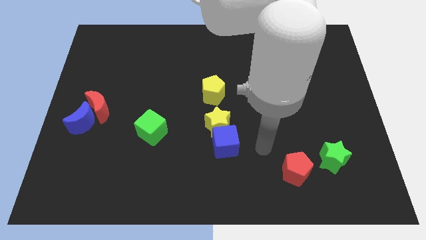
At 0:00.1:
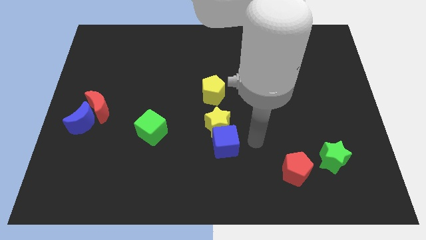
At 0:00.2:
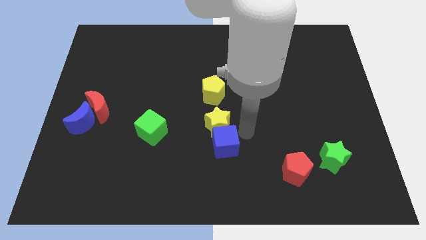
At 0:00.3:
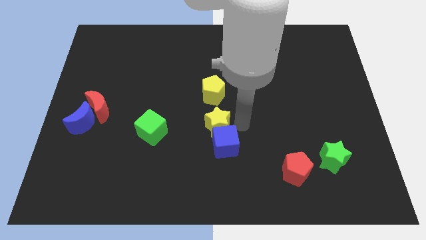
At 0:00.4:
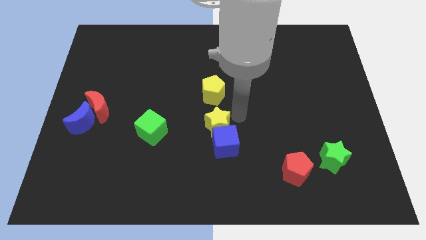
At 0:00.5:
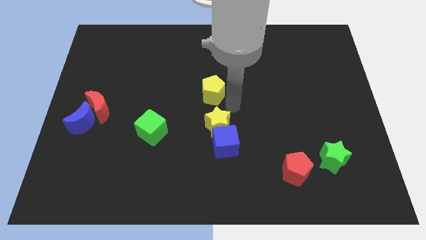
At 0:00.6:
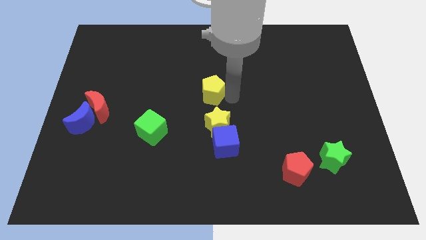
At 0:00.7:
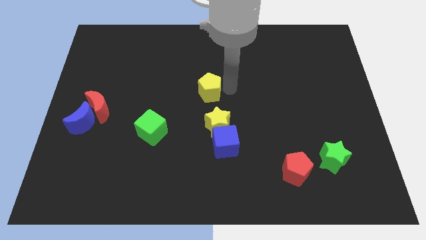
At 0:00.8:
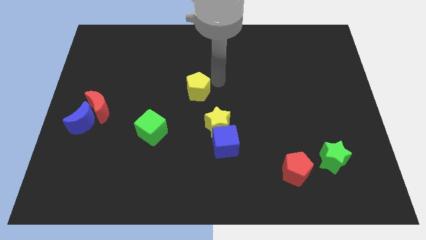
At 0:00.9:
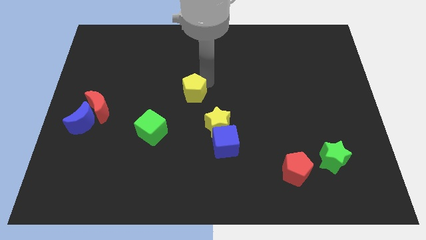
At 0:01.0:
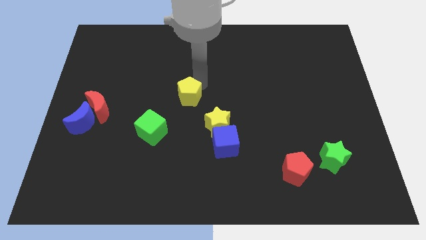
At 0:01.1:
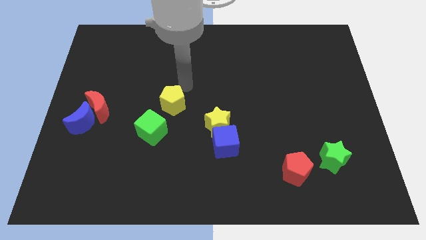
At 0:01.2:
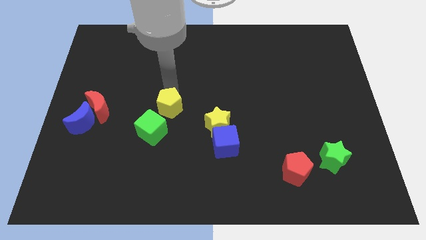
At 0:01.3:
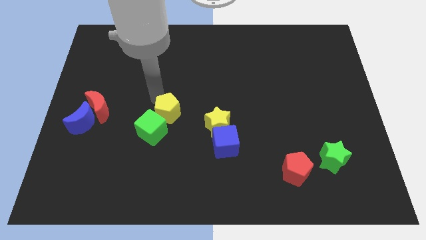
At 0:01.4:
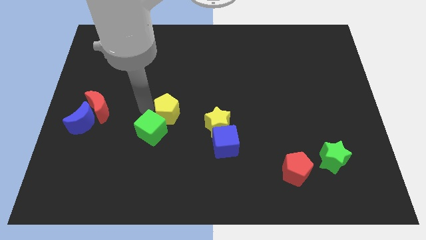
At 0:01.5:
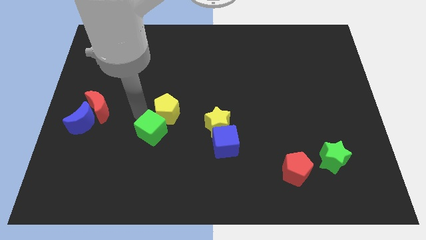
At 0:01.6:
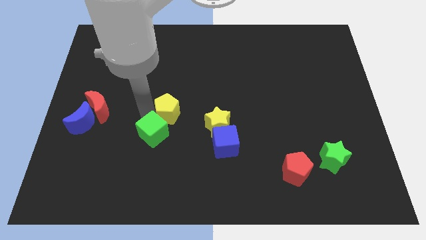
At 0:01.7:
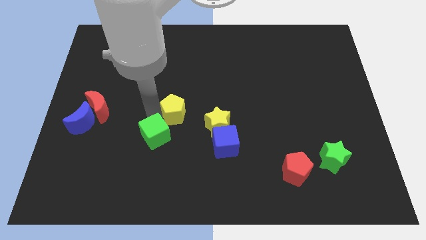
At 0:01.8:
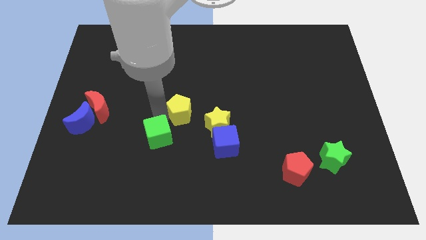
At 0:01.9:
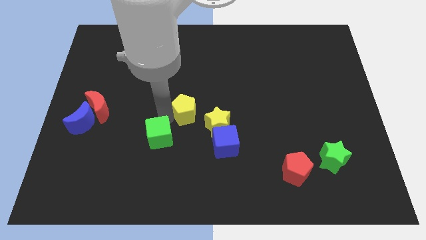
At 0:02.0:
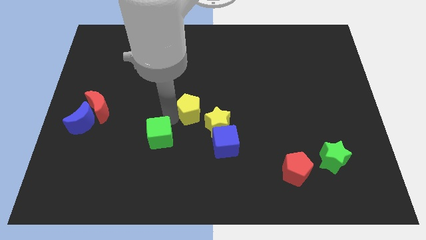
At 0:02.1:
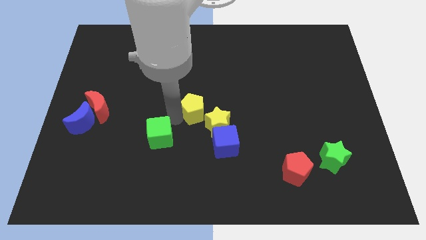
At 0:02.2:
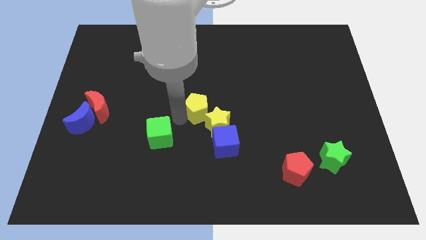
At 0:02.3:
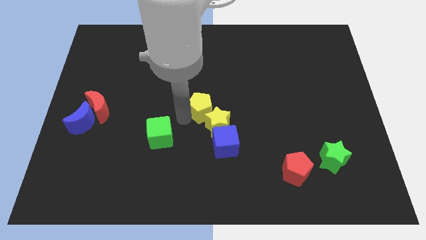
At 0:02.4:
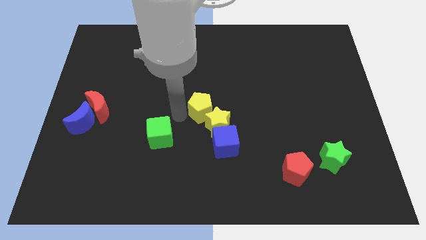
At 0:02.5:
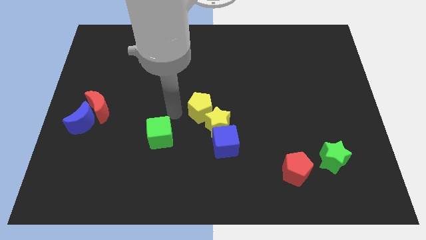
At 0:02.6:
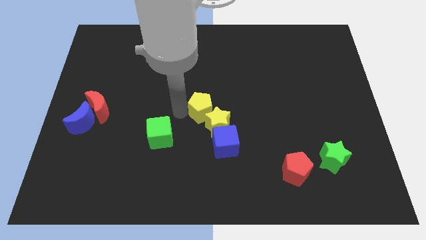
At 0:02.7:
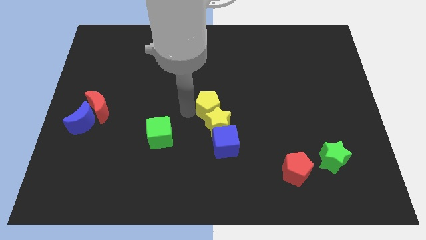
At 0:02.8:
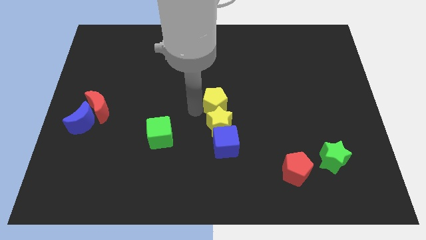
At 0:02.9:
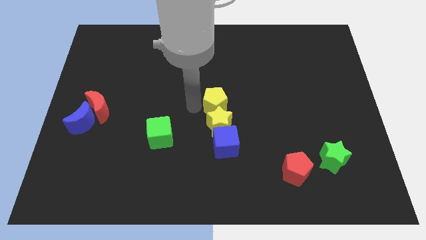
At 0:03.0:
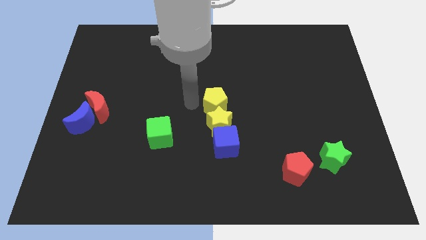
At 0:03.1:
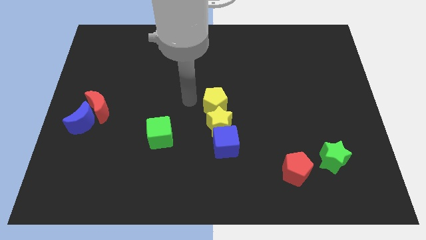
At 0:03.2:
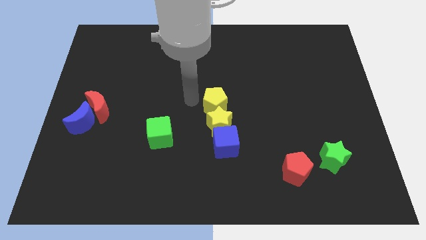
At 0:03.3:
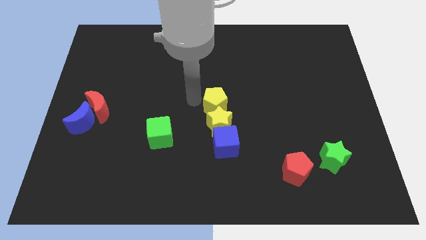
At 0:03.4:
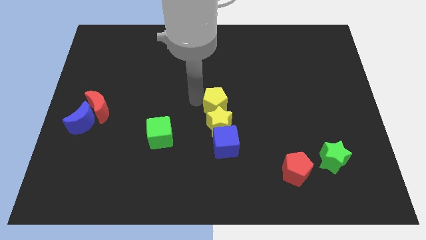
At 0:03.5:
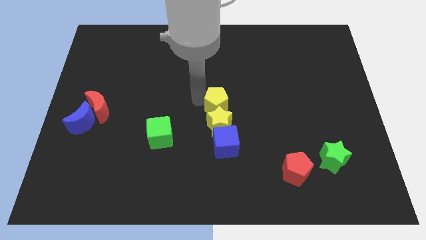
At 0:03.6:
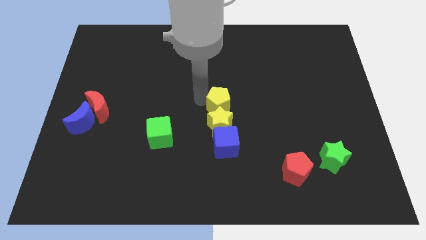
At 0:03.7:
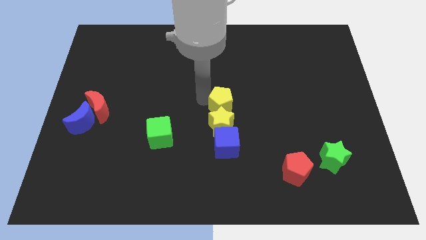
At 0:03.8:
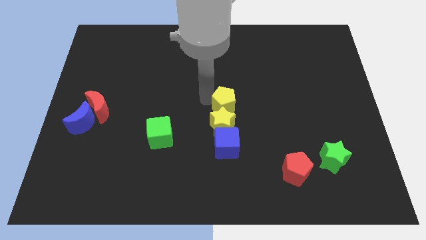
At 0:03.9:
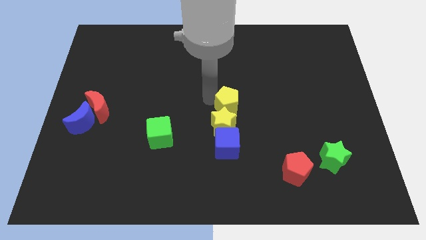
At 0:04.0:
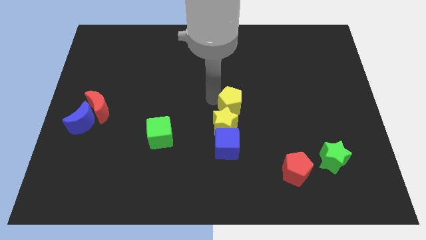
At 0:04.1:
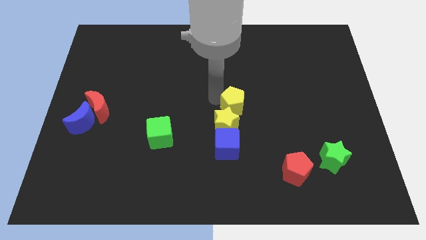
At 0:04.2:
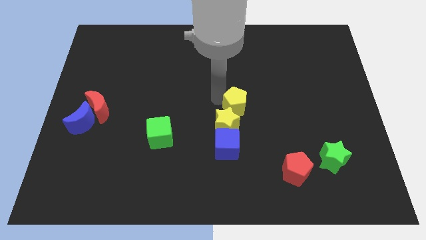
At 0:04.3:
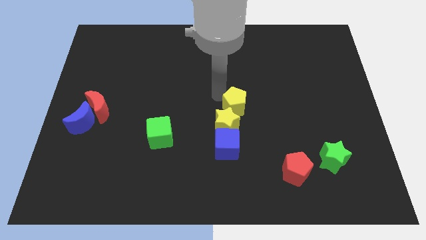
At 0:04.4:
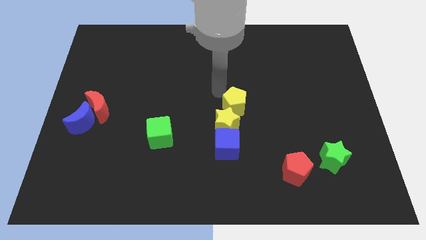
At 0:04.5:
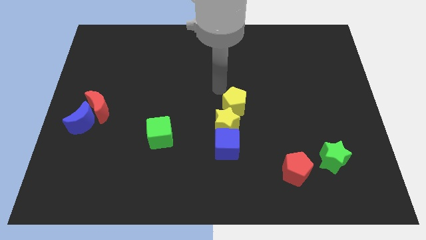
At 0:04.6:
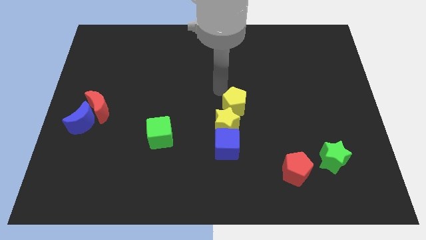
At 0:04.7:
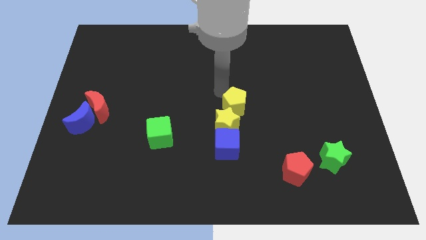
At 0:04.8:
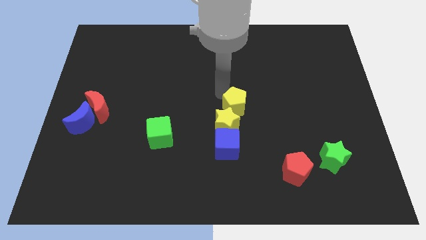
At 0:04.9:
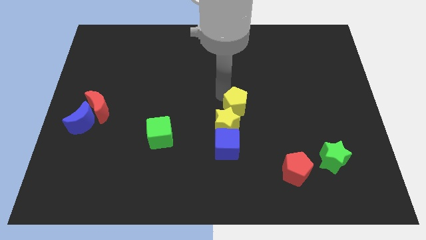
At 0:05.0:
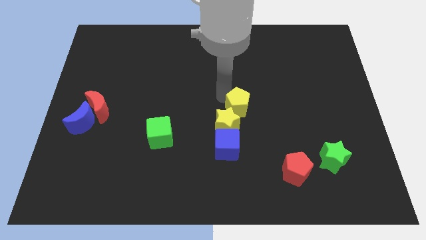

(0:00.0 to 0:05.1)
slightly slide the yellow pentagon diagonally down and right

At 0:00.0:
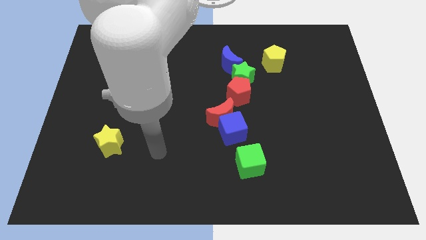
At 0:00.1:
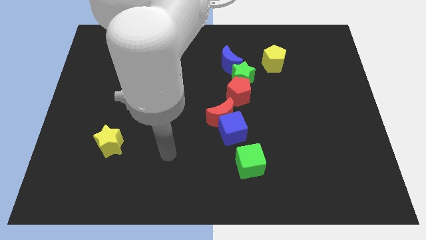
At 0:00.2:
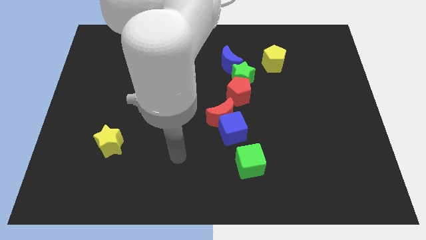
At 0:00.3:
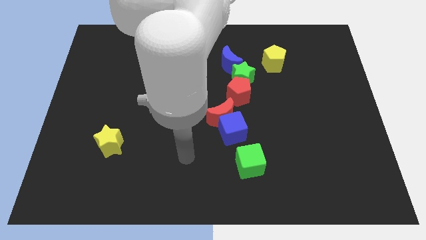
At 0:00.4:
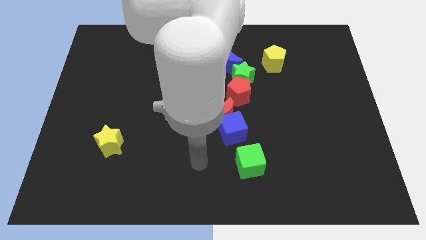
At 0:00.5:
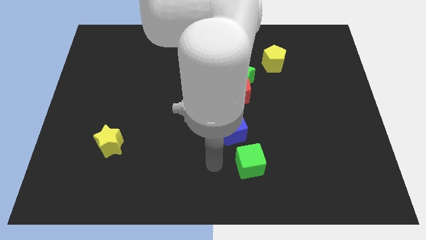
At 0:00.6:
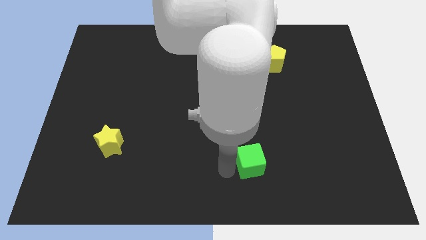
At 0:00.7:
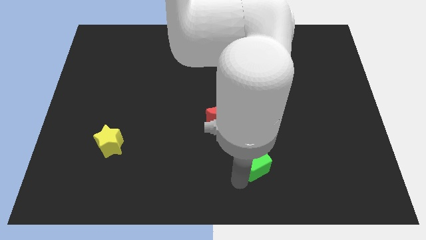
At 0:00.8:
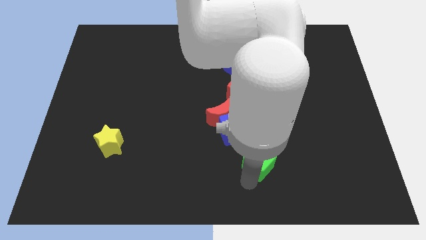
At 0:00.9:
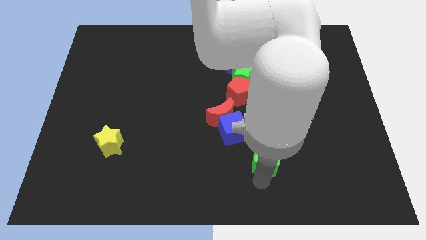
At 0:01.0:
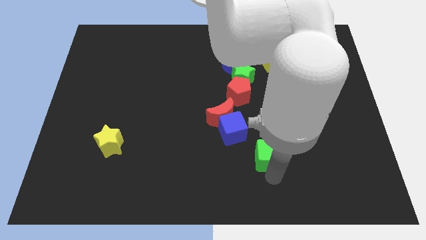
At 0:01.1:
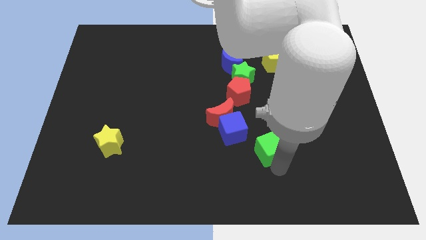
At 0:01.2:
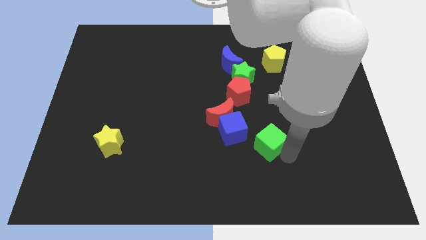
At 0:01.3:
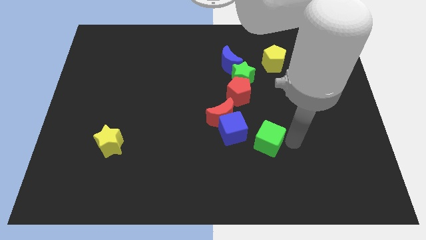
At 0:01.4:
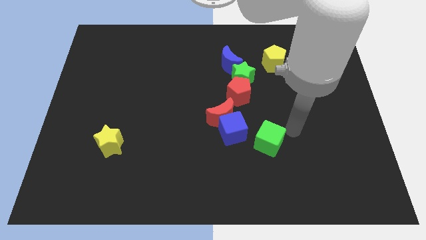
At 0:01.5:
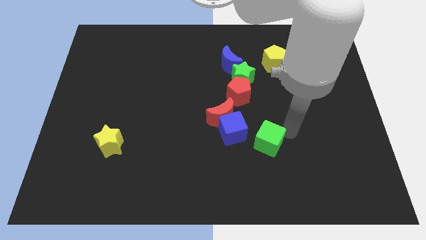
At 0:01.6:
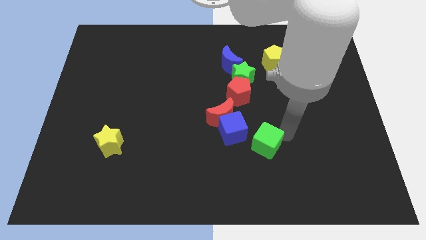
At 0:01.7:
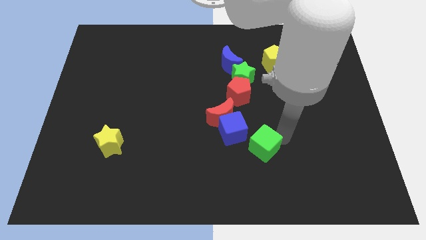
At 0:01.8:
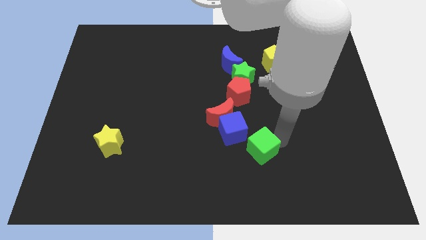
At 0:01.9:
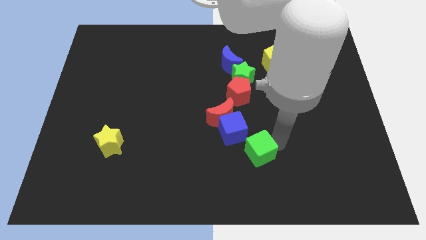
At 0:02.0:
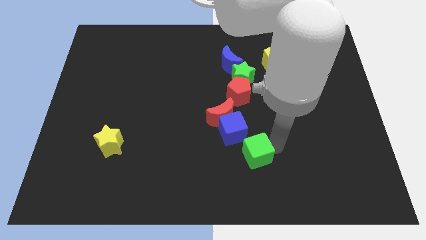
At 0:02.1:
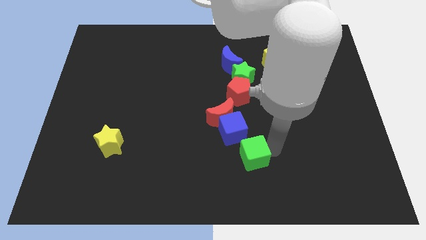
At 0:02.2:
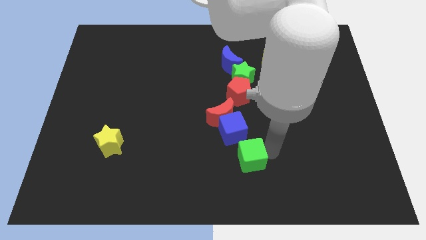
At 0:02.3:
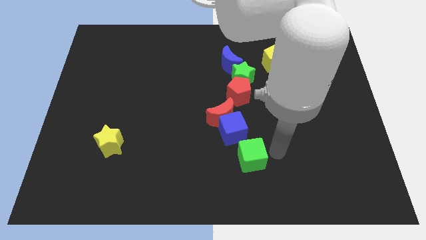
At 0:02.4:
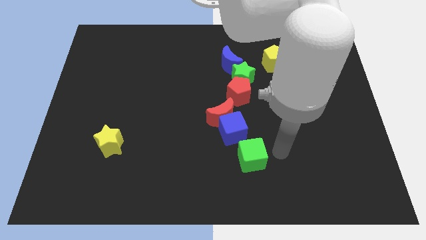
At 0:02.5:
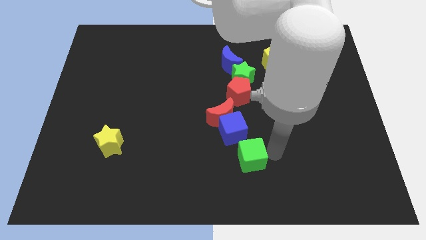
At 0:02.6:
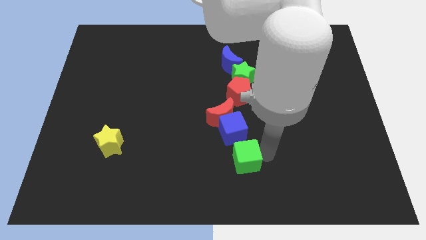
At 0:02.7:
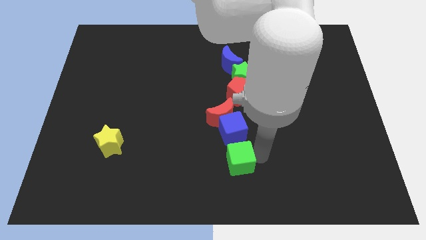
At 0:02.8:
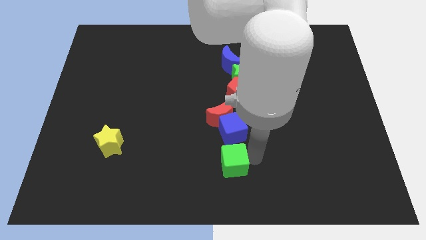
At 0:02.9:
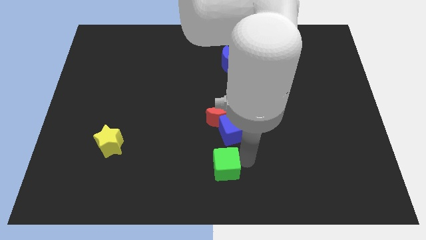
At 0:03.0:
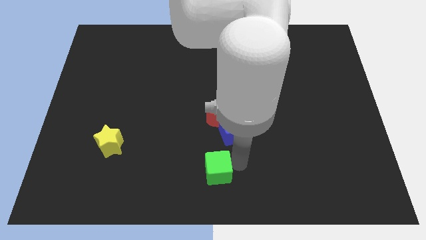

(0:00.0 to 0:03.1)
push the green cube to the left a bit
